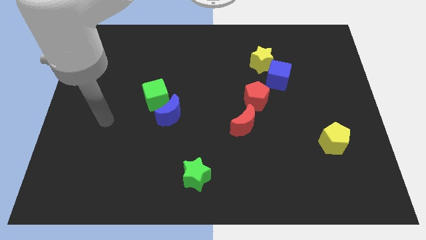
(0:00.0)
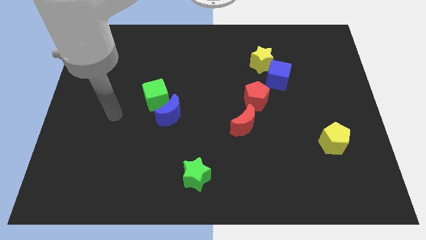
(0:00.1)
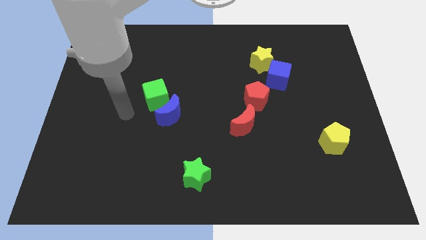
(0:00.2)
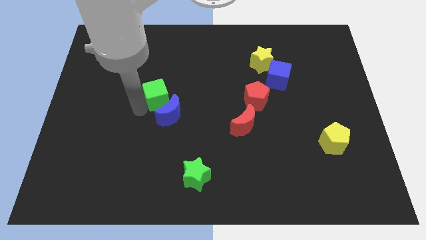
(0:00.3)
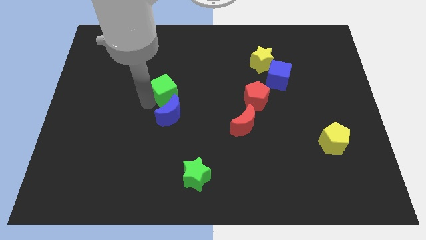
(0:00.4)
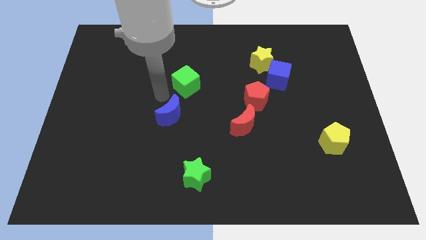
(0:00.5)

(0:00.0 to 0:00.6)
pull the blue moon apart from the green cube

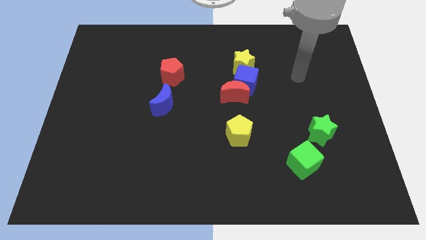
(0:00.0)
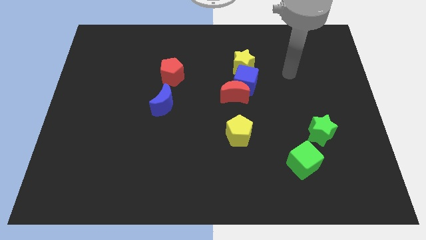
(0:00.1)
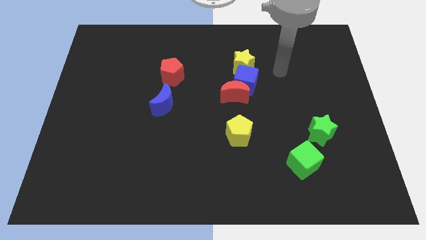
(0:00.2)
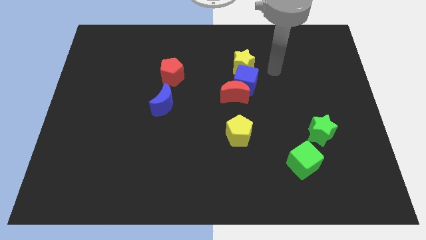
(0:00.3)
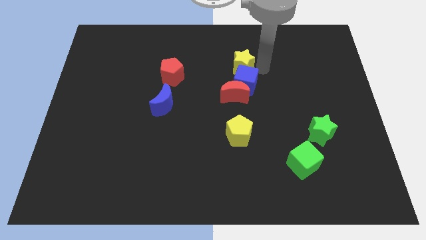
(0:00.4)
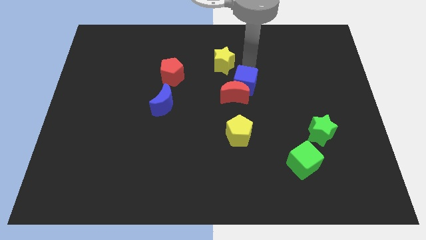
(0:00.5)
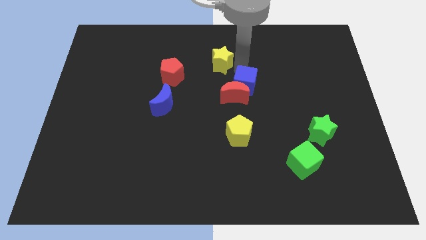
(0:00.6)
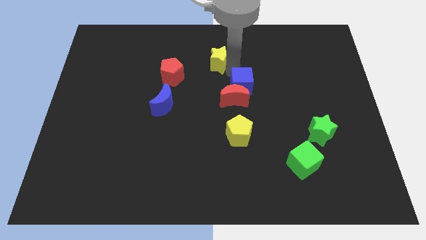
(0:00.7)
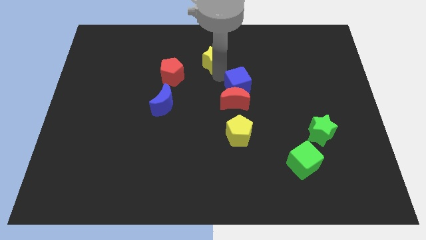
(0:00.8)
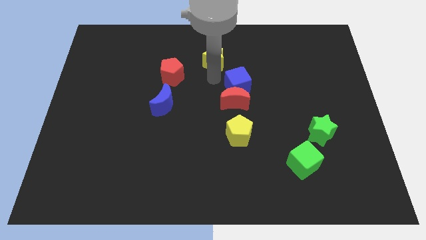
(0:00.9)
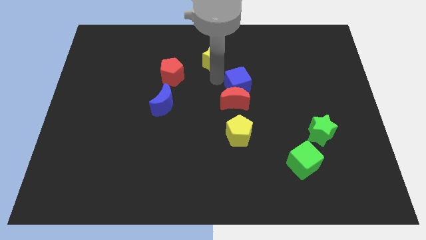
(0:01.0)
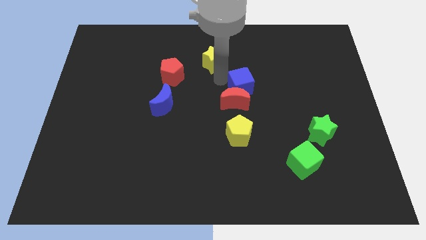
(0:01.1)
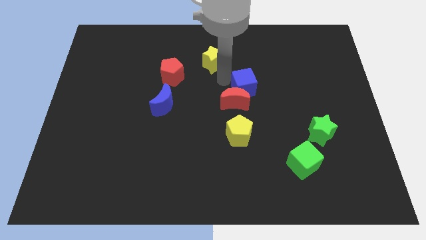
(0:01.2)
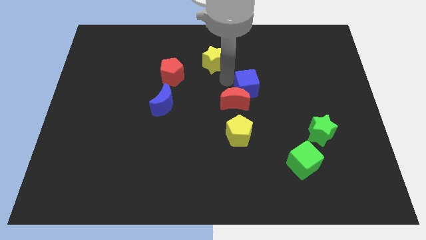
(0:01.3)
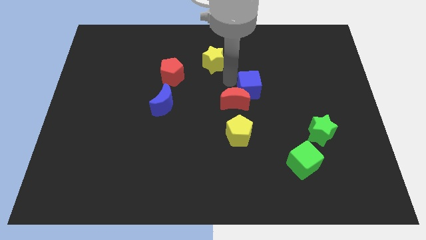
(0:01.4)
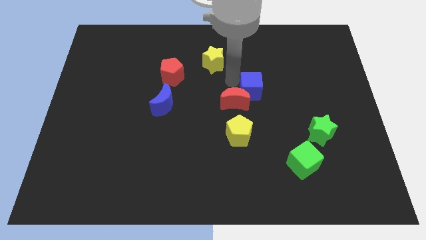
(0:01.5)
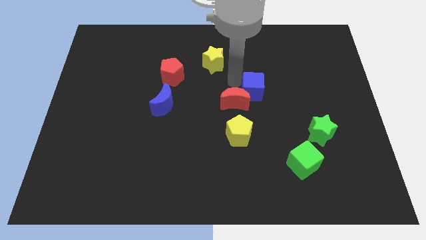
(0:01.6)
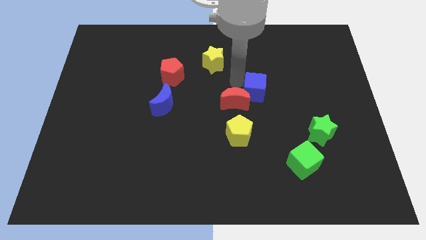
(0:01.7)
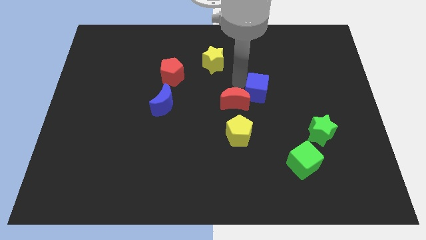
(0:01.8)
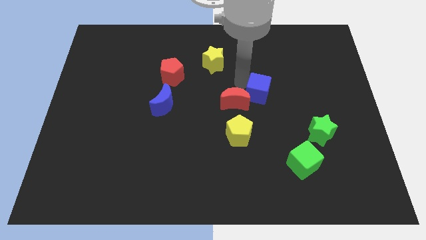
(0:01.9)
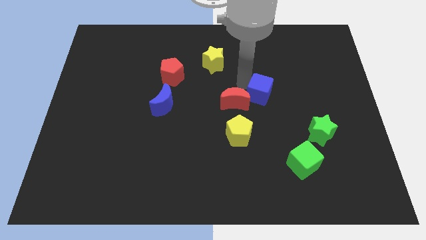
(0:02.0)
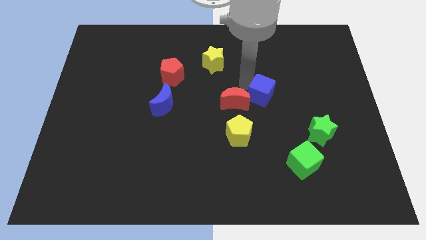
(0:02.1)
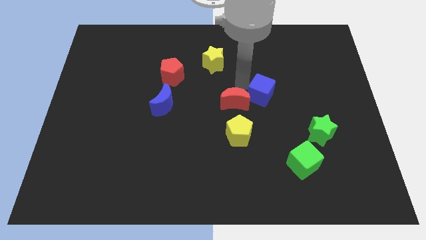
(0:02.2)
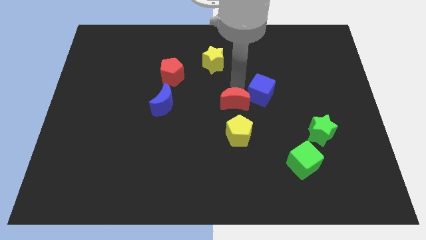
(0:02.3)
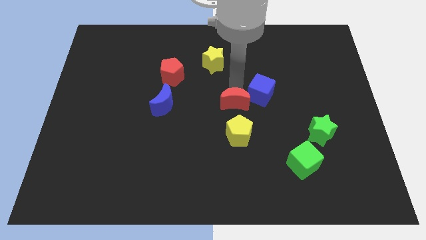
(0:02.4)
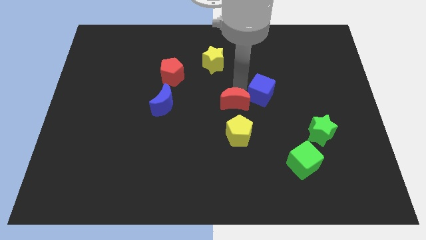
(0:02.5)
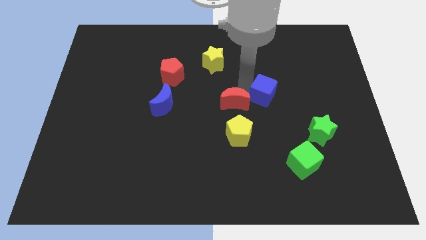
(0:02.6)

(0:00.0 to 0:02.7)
separate the blue cube from the red moon and yellow star

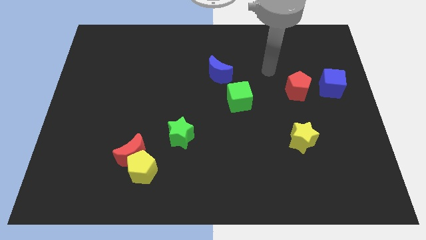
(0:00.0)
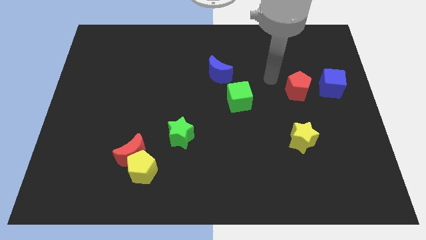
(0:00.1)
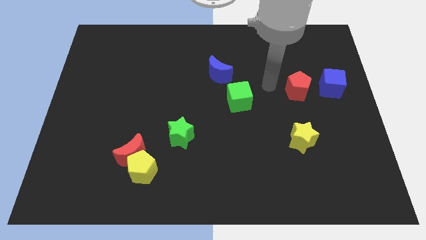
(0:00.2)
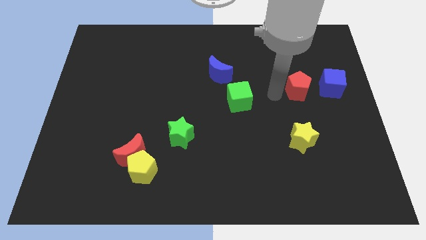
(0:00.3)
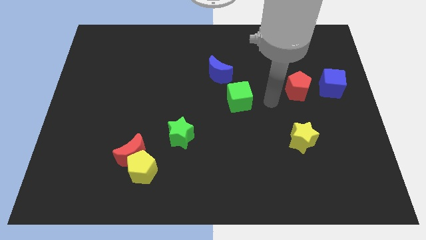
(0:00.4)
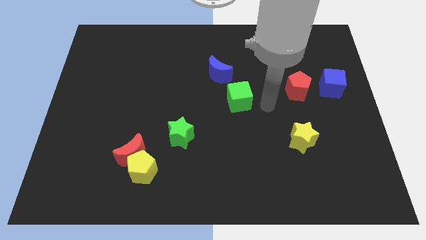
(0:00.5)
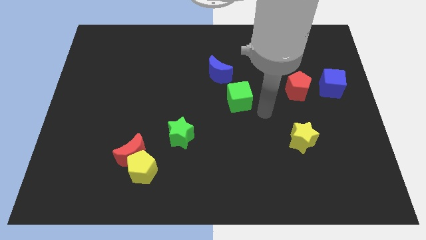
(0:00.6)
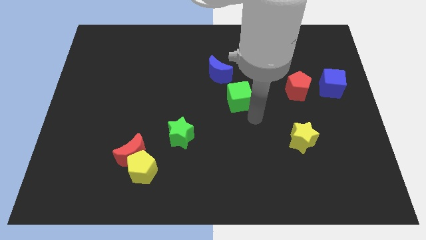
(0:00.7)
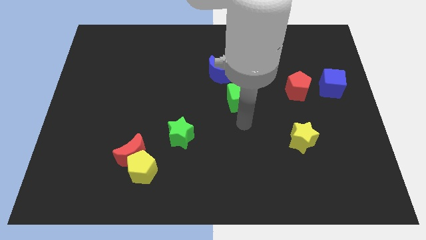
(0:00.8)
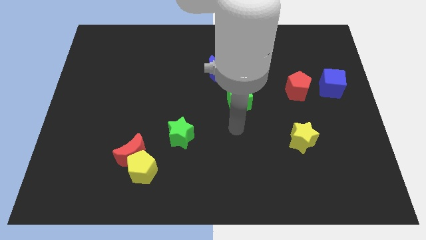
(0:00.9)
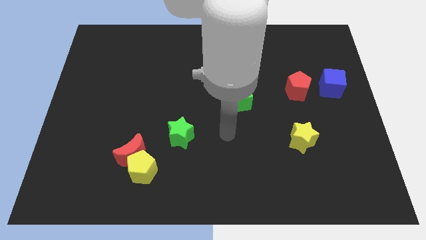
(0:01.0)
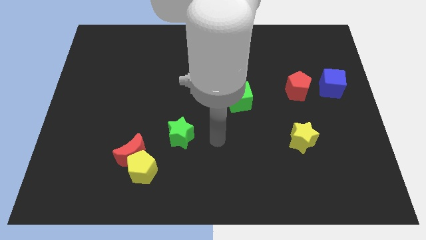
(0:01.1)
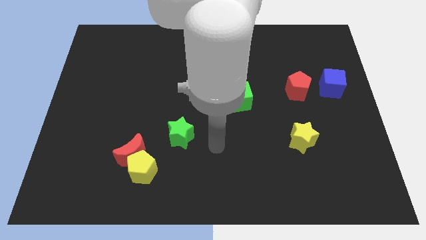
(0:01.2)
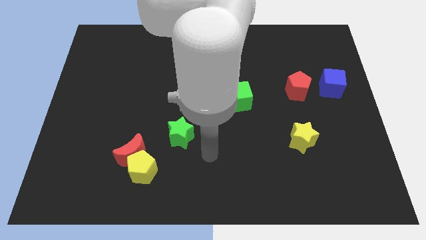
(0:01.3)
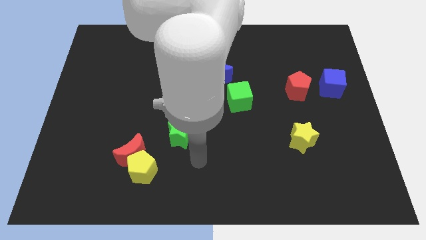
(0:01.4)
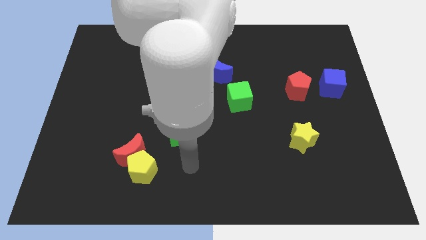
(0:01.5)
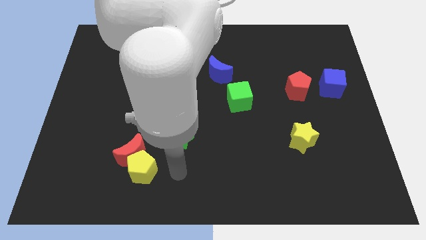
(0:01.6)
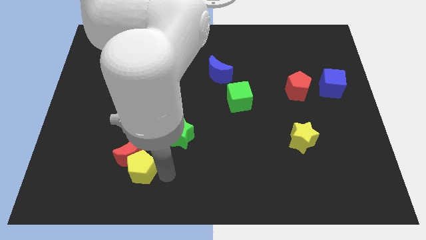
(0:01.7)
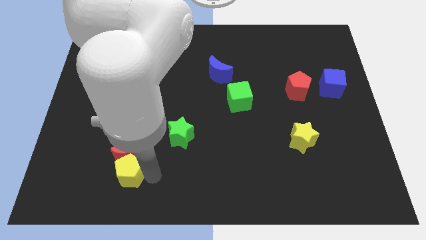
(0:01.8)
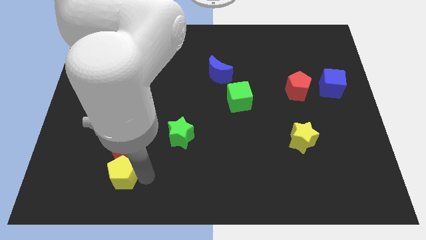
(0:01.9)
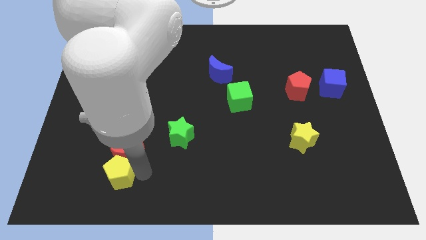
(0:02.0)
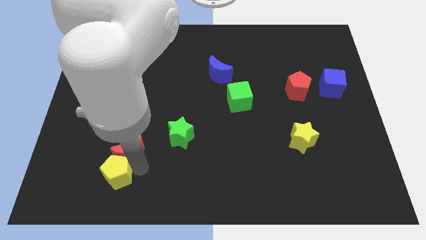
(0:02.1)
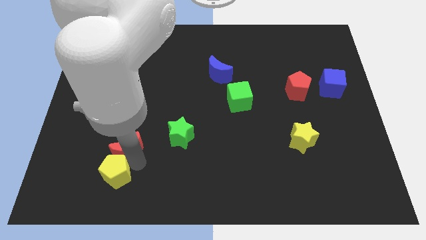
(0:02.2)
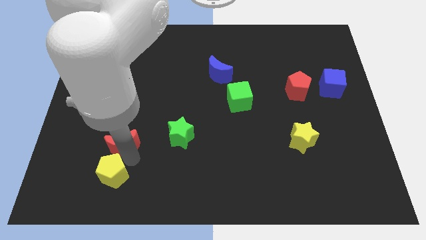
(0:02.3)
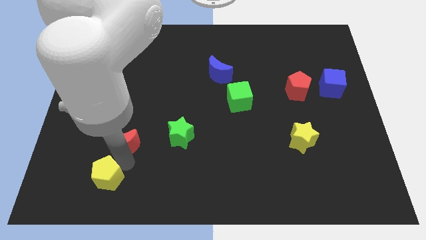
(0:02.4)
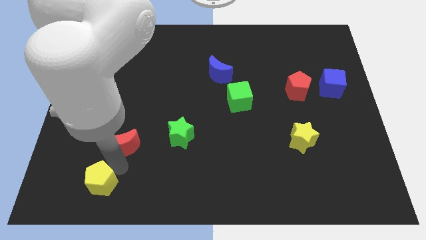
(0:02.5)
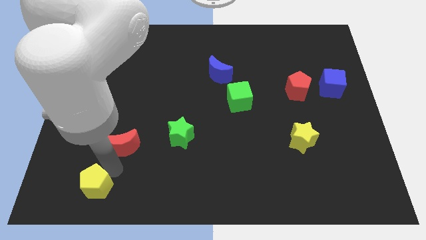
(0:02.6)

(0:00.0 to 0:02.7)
separate the red moon from the yellow pentagon

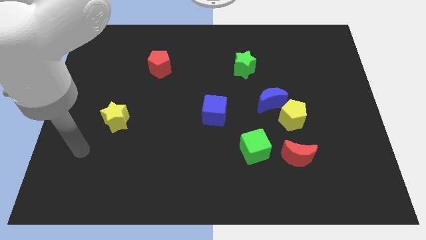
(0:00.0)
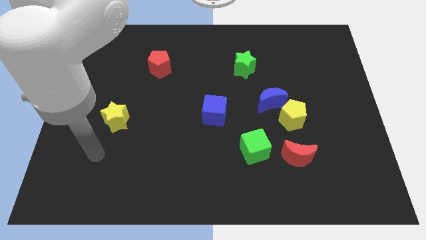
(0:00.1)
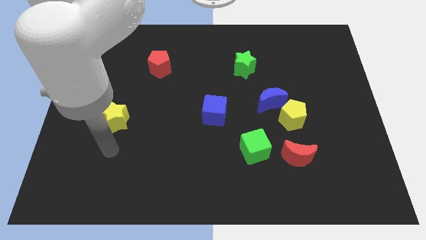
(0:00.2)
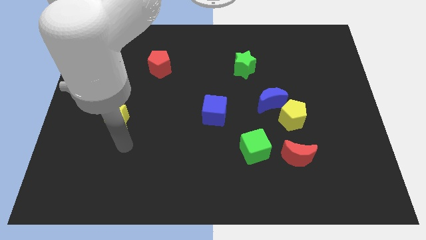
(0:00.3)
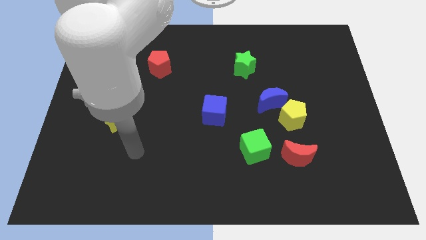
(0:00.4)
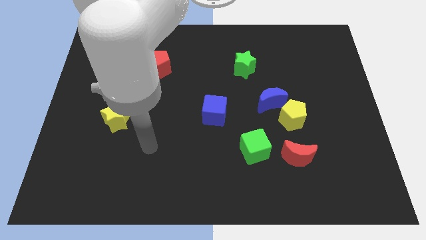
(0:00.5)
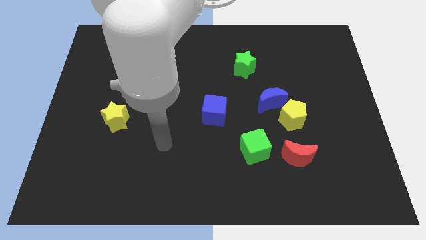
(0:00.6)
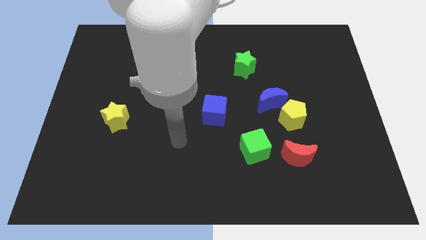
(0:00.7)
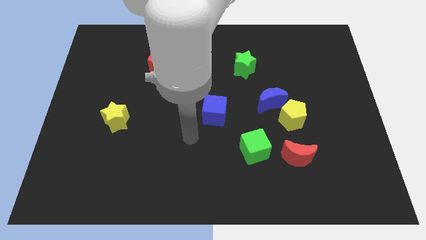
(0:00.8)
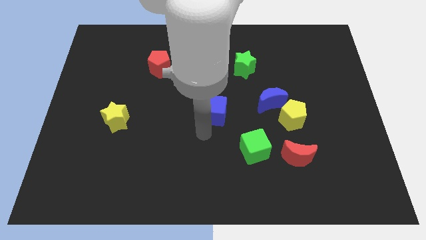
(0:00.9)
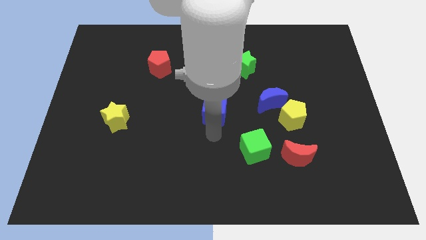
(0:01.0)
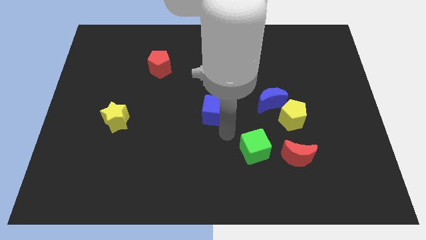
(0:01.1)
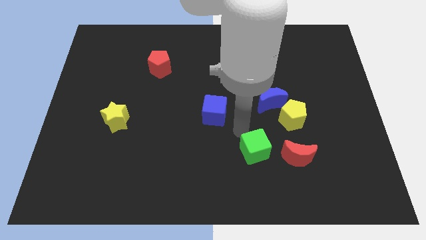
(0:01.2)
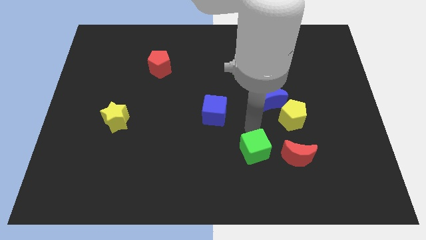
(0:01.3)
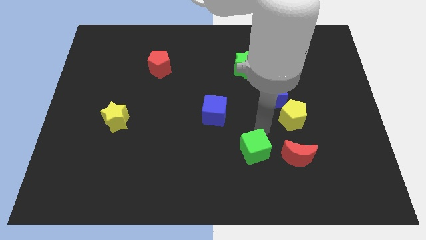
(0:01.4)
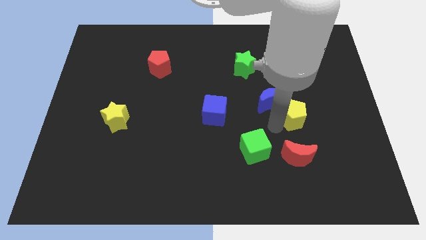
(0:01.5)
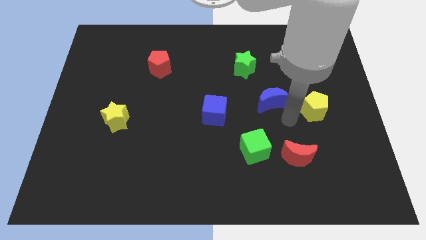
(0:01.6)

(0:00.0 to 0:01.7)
move the blue moon away from the yellow pentagon

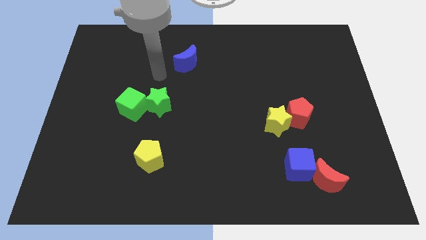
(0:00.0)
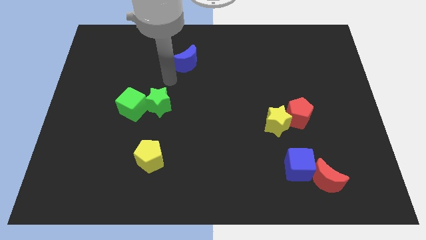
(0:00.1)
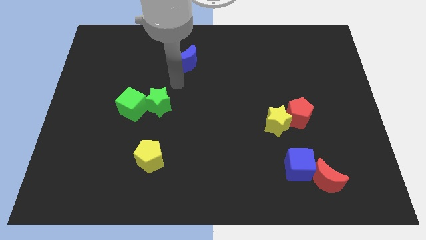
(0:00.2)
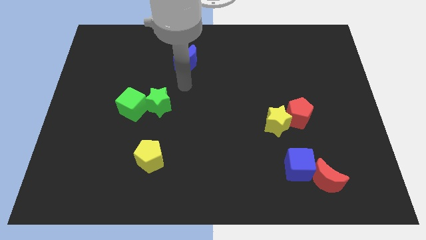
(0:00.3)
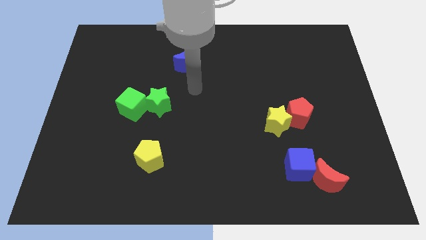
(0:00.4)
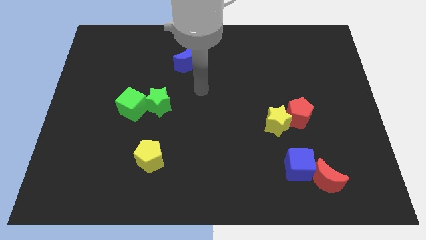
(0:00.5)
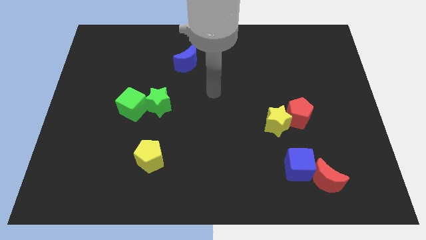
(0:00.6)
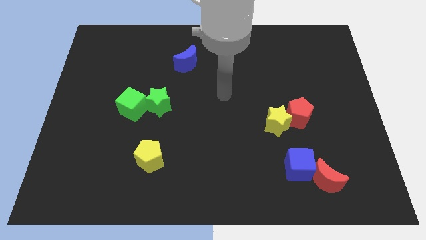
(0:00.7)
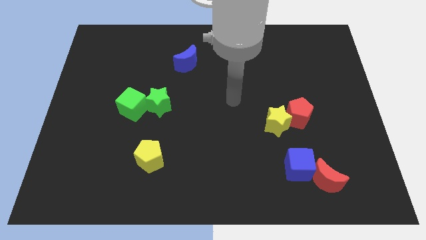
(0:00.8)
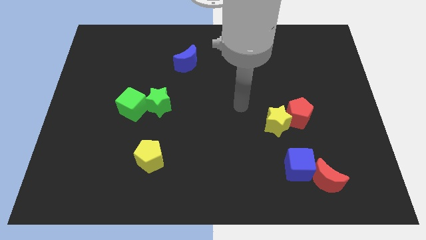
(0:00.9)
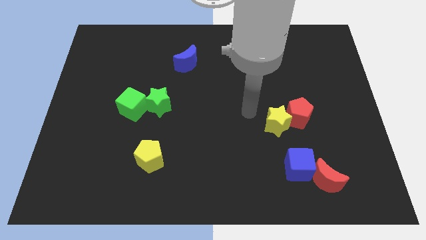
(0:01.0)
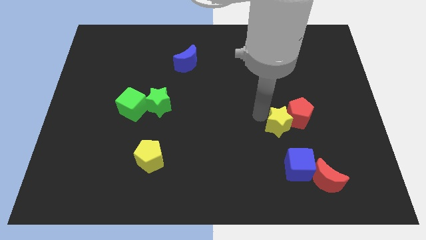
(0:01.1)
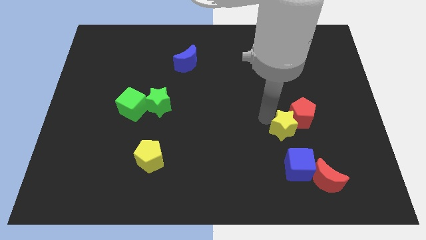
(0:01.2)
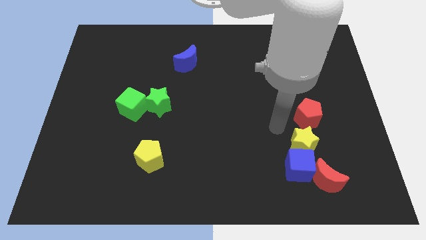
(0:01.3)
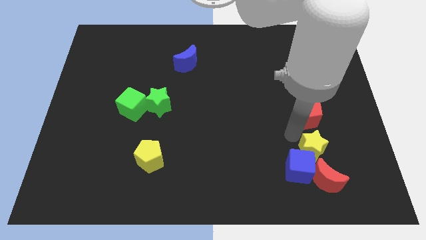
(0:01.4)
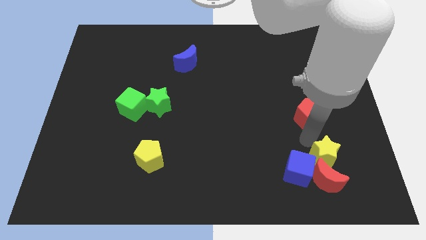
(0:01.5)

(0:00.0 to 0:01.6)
pull the red pentagon apart from the yellow star
